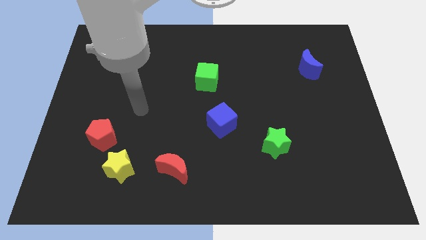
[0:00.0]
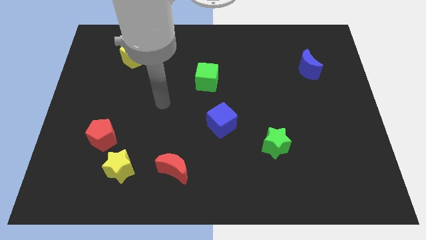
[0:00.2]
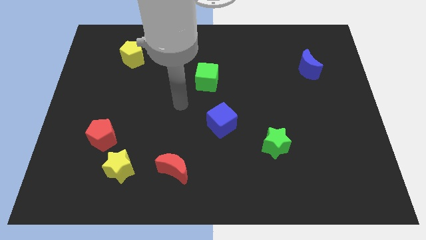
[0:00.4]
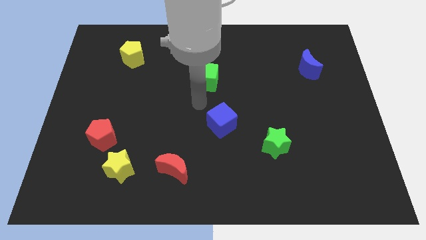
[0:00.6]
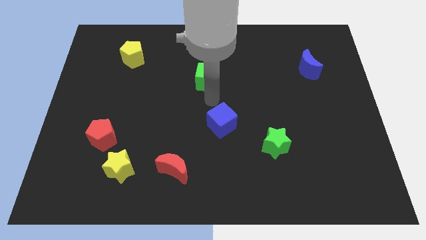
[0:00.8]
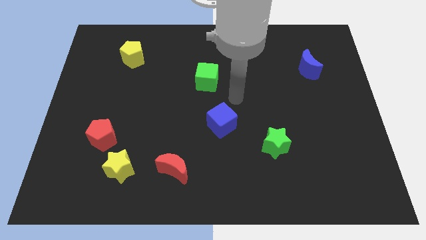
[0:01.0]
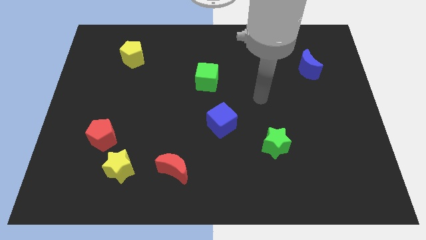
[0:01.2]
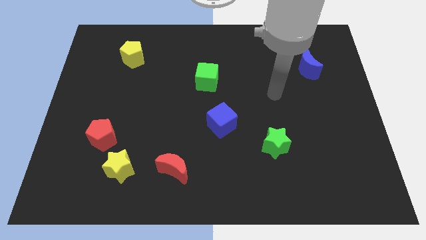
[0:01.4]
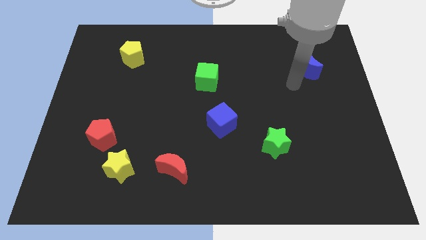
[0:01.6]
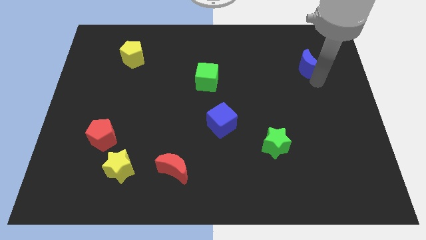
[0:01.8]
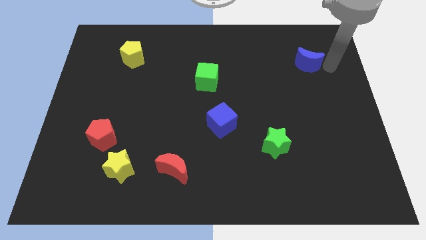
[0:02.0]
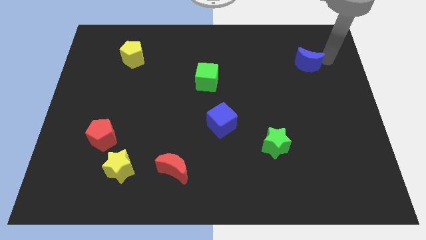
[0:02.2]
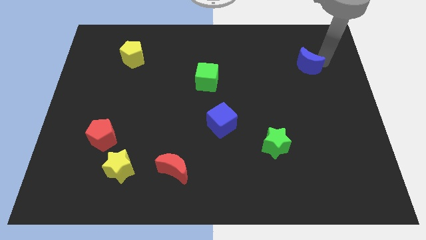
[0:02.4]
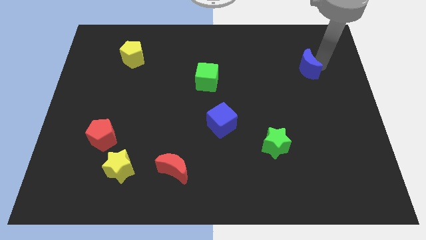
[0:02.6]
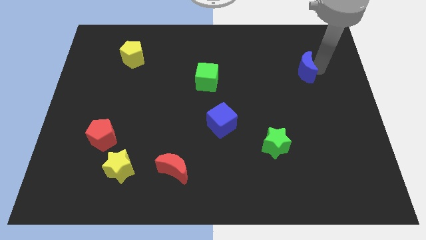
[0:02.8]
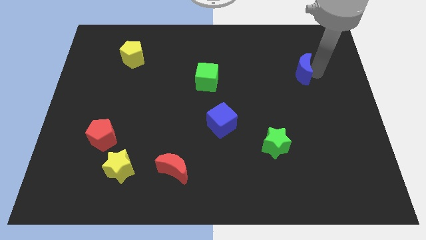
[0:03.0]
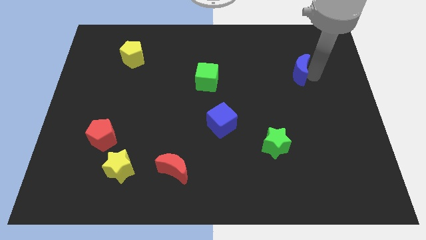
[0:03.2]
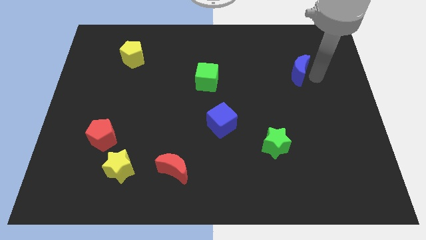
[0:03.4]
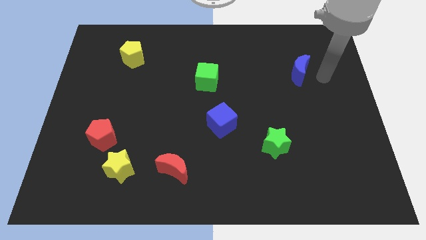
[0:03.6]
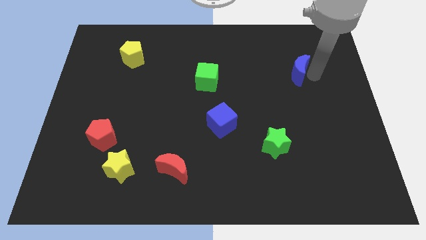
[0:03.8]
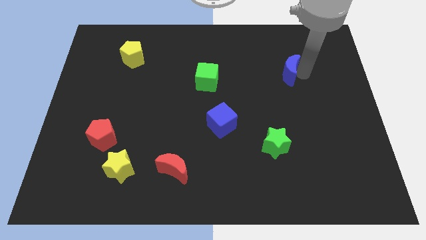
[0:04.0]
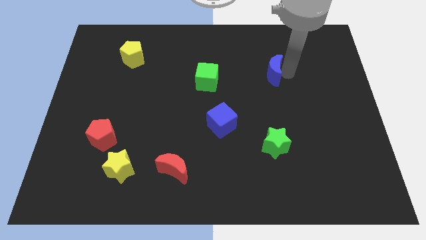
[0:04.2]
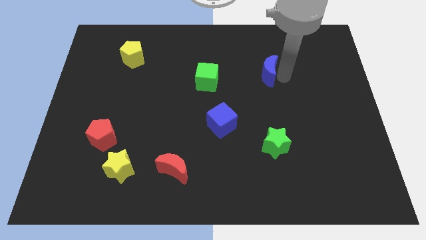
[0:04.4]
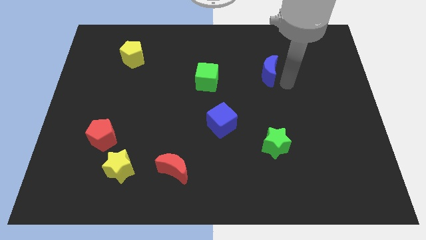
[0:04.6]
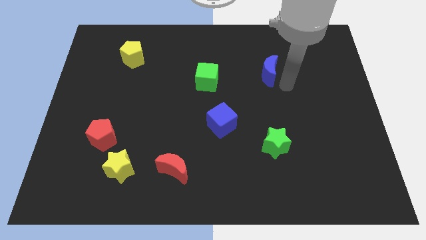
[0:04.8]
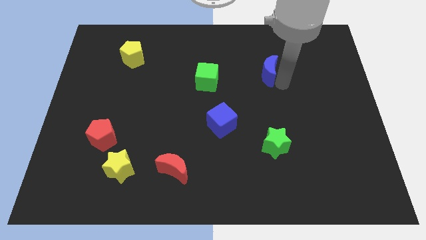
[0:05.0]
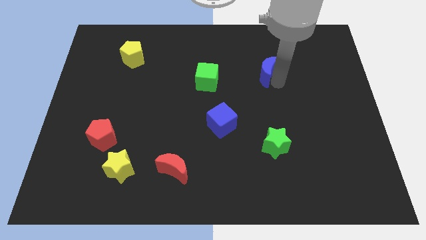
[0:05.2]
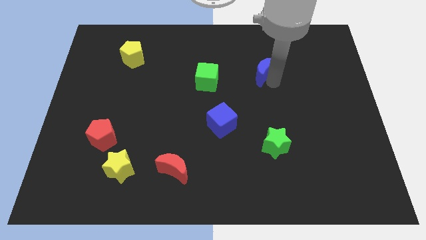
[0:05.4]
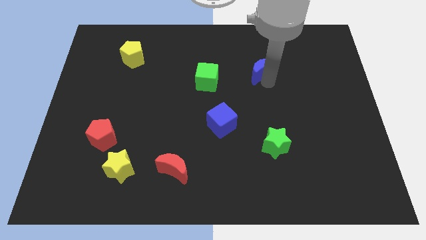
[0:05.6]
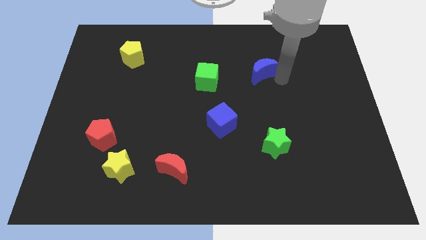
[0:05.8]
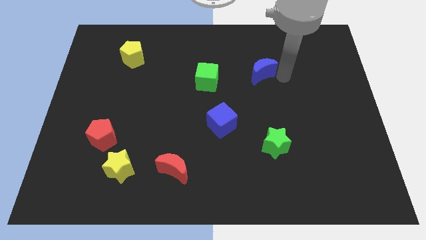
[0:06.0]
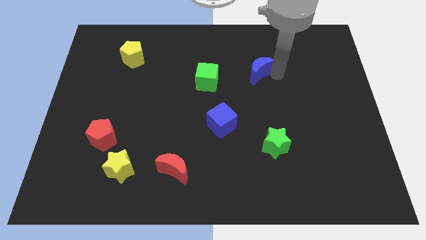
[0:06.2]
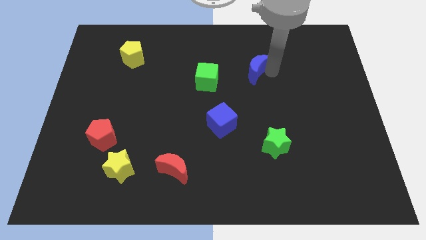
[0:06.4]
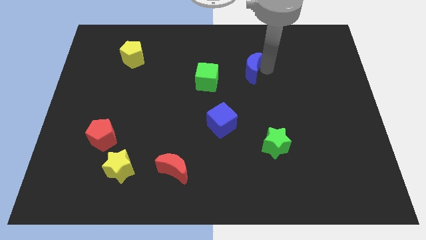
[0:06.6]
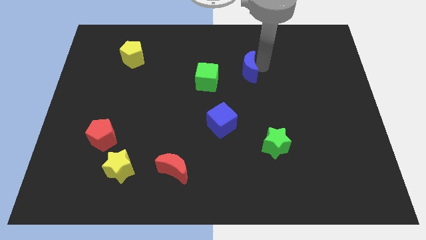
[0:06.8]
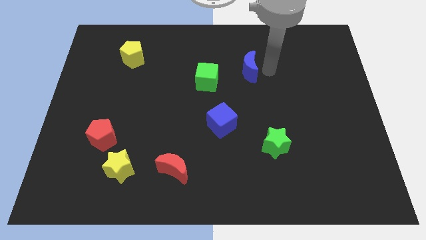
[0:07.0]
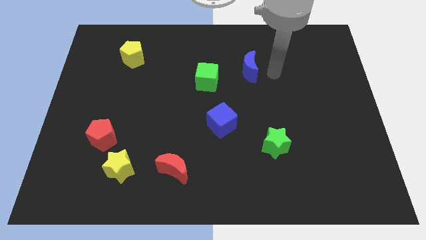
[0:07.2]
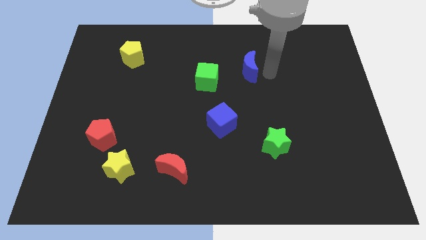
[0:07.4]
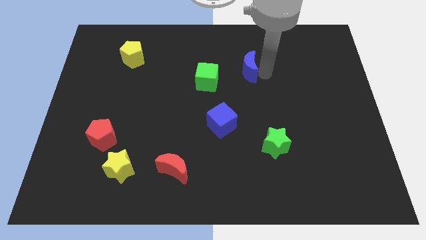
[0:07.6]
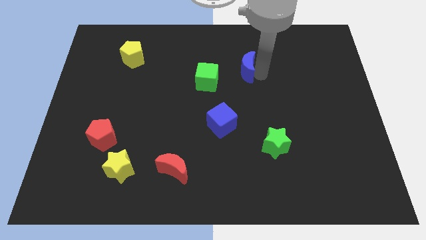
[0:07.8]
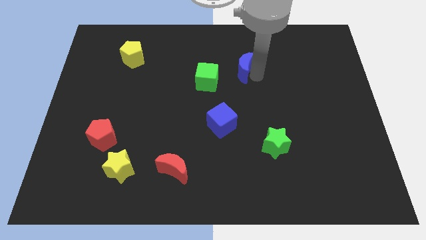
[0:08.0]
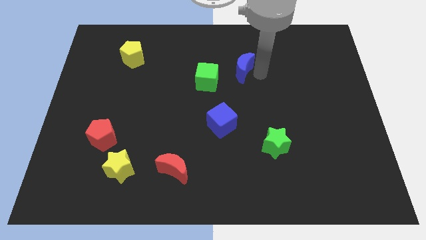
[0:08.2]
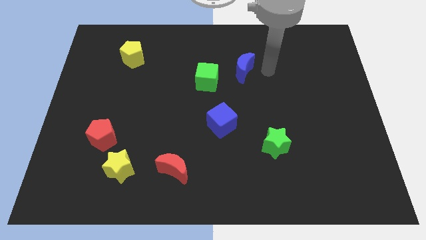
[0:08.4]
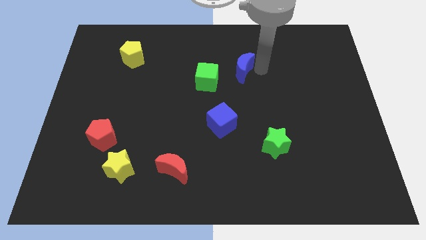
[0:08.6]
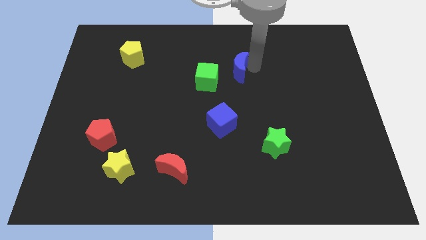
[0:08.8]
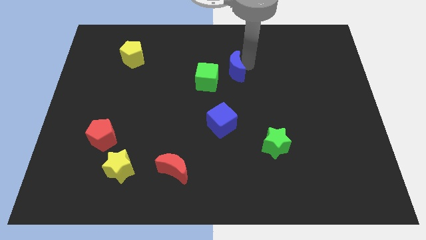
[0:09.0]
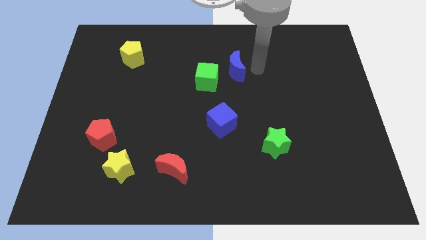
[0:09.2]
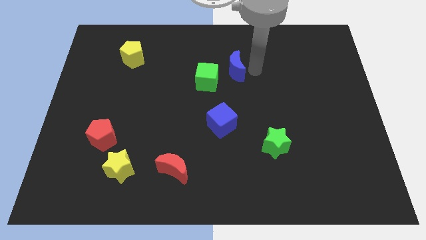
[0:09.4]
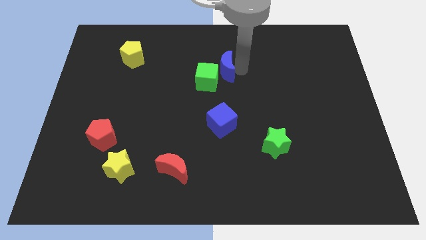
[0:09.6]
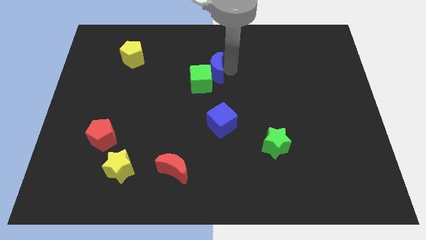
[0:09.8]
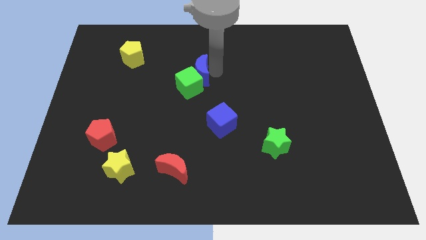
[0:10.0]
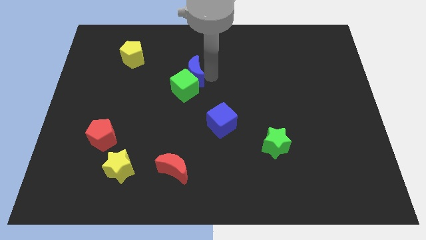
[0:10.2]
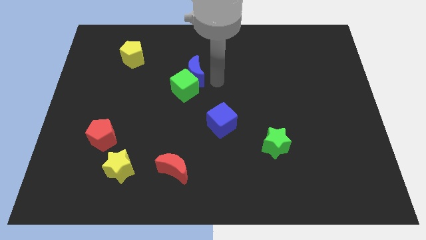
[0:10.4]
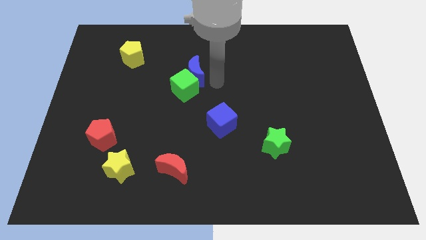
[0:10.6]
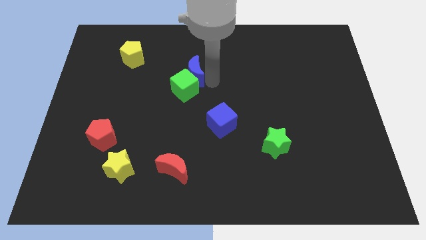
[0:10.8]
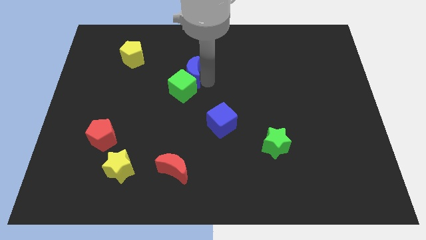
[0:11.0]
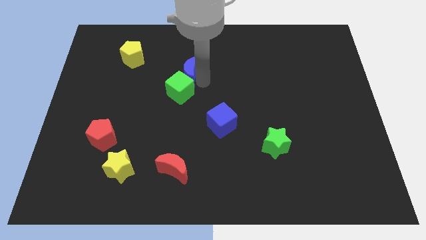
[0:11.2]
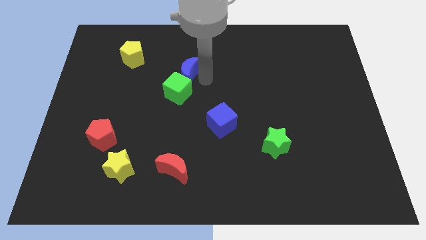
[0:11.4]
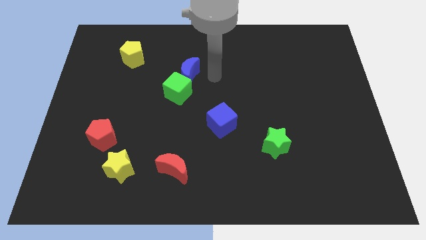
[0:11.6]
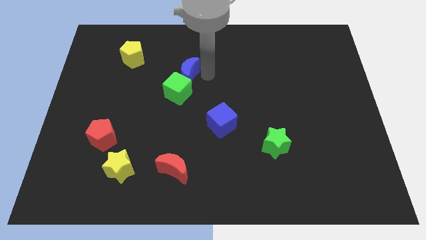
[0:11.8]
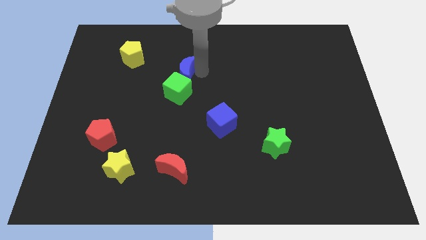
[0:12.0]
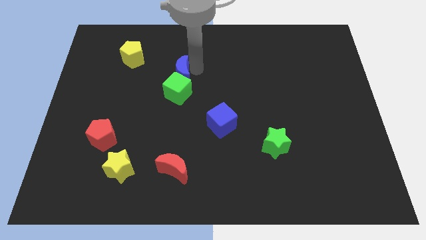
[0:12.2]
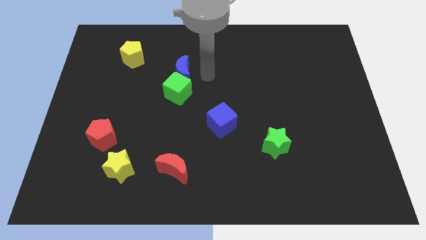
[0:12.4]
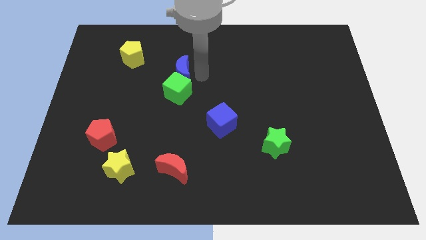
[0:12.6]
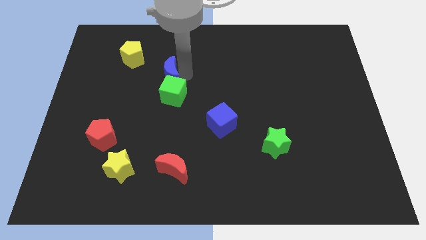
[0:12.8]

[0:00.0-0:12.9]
slide the blue moon to the bottom right of the yellow pentagon

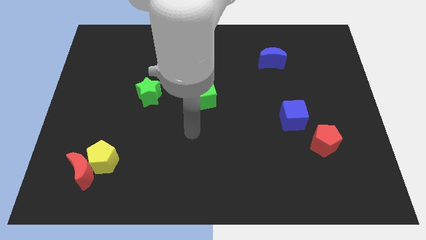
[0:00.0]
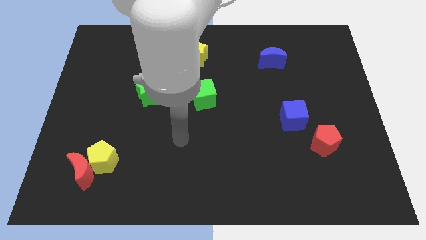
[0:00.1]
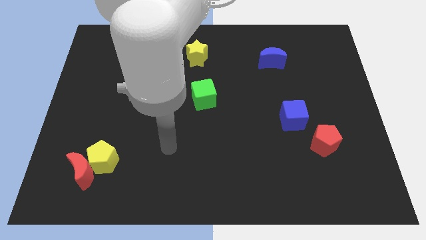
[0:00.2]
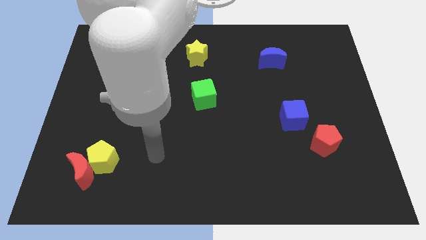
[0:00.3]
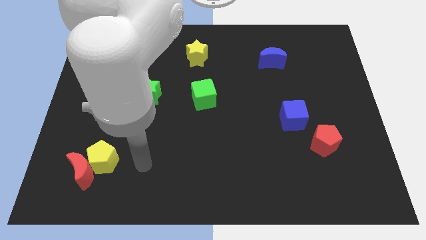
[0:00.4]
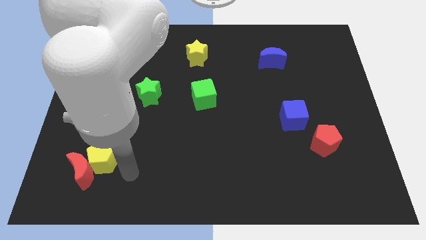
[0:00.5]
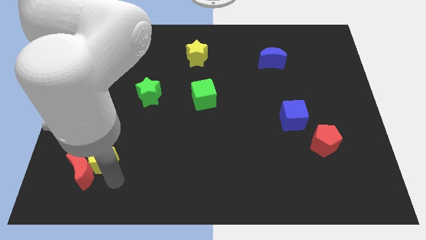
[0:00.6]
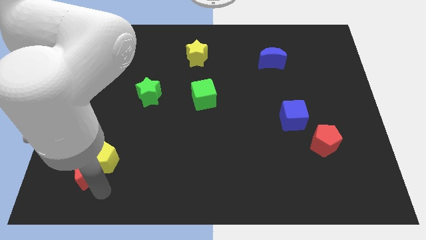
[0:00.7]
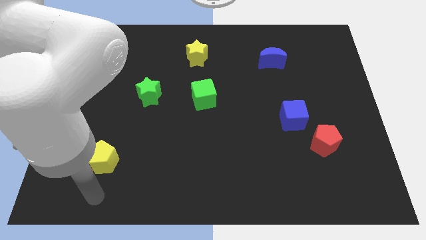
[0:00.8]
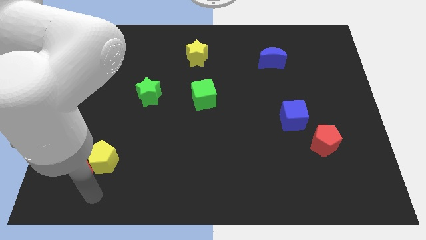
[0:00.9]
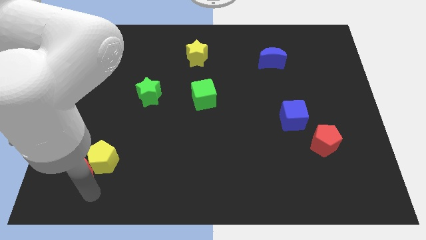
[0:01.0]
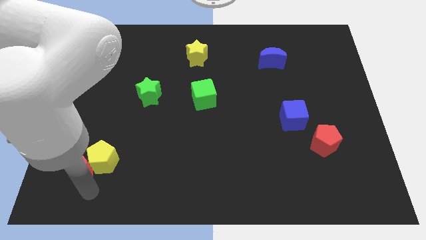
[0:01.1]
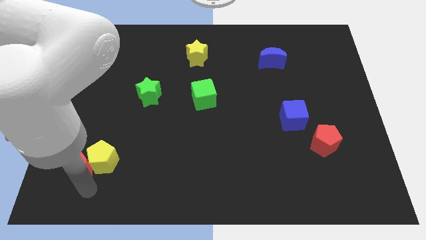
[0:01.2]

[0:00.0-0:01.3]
slide the red moon to the top left of the yellow pentagon
